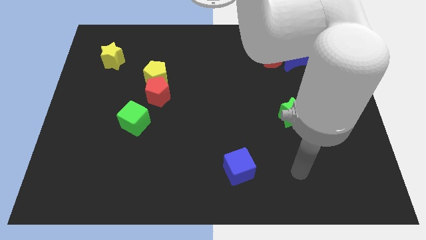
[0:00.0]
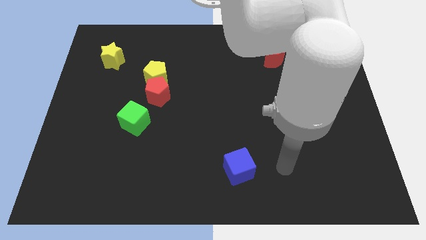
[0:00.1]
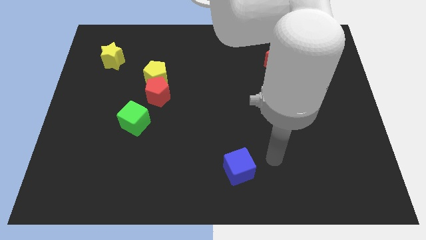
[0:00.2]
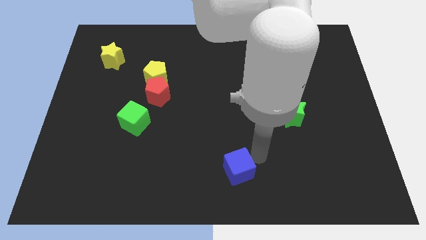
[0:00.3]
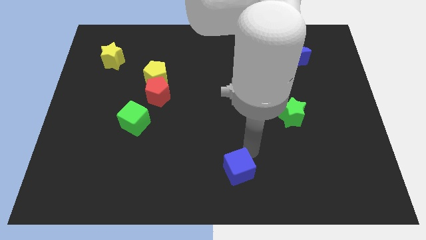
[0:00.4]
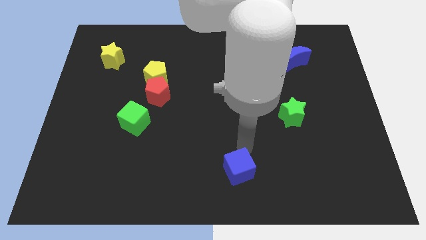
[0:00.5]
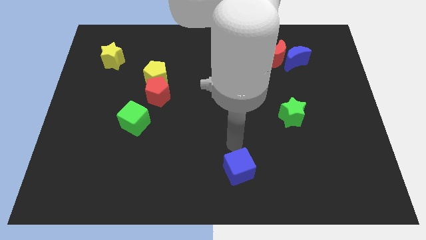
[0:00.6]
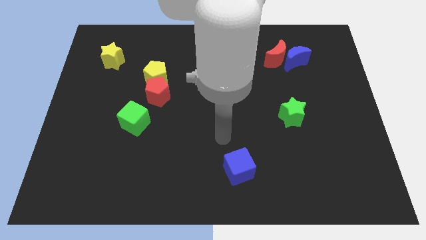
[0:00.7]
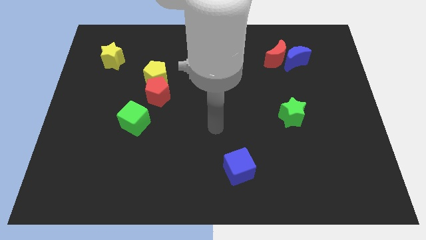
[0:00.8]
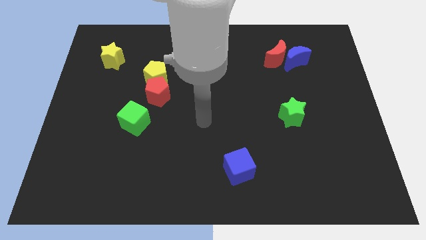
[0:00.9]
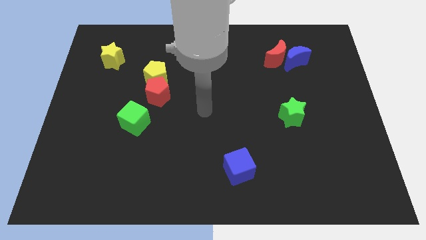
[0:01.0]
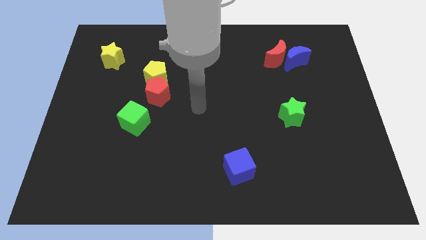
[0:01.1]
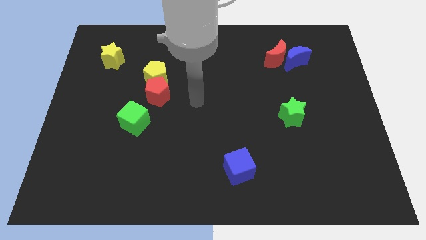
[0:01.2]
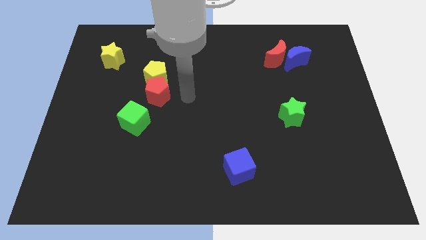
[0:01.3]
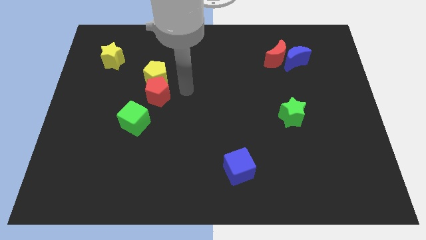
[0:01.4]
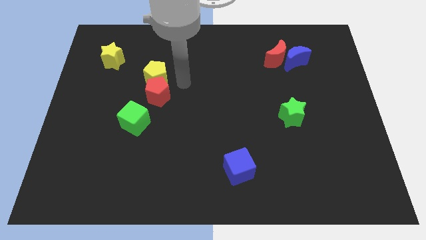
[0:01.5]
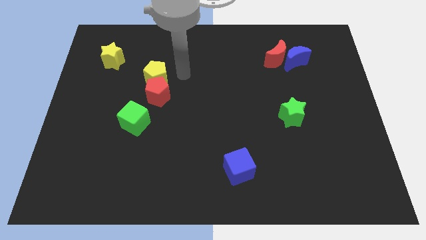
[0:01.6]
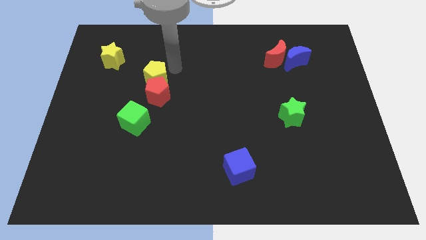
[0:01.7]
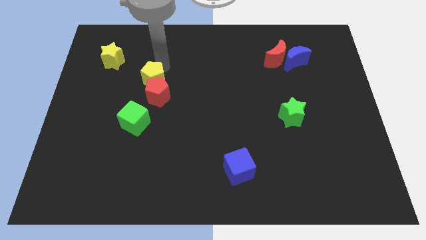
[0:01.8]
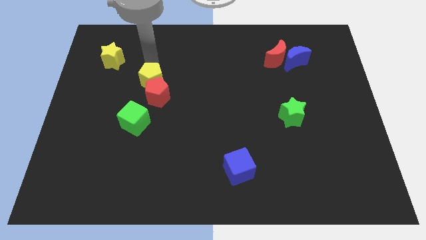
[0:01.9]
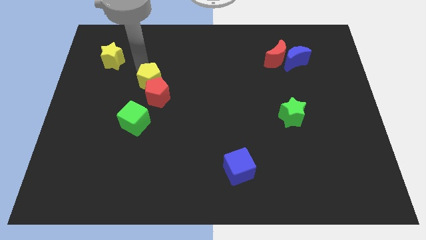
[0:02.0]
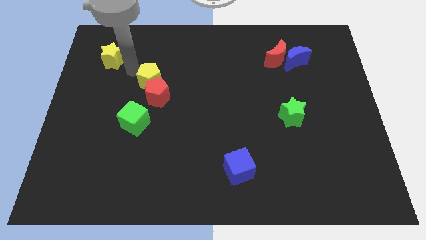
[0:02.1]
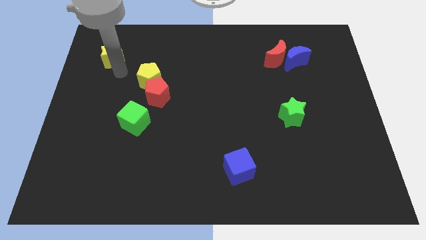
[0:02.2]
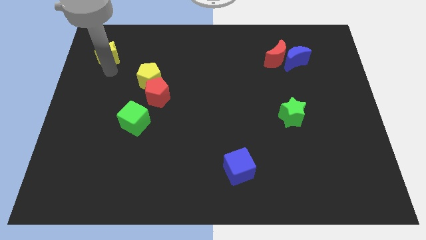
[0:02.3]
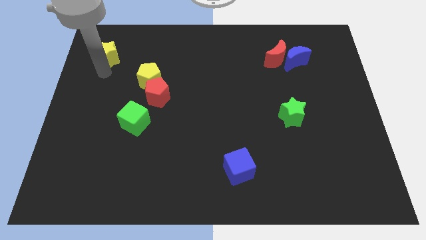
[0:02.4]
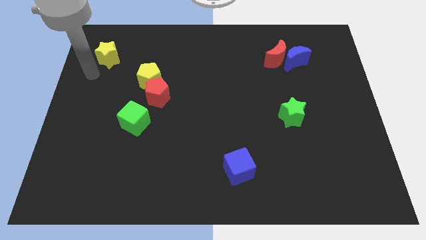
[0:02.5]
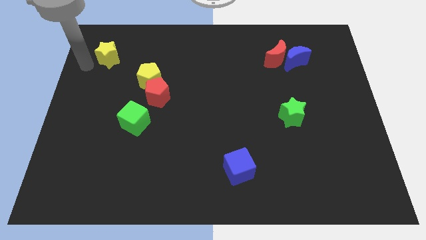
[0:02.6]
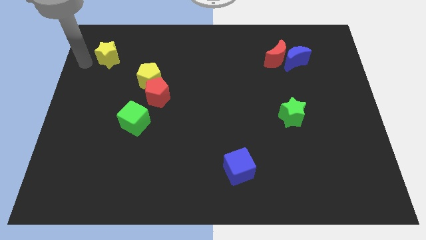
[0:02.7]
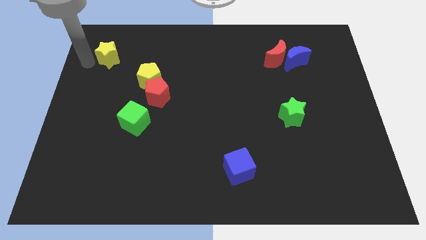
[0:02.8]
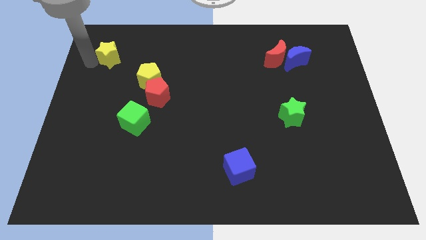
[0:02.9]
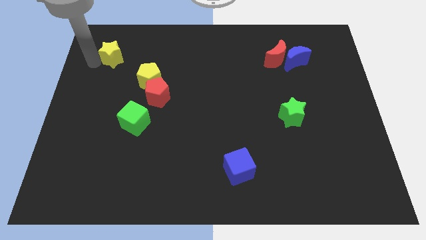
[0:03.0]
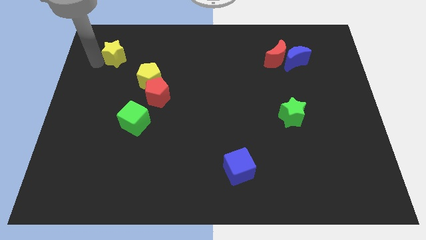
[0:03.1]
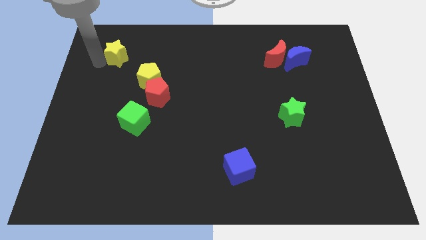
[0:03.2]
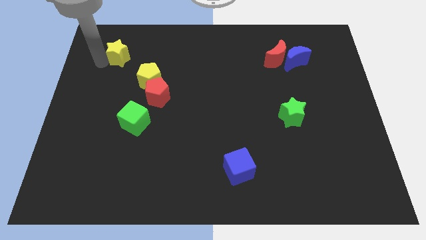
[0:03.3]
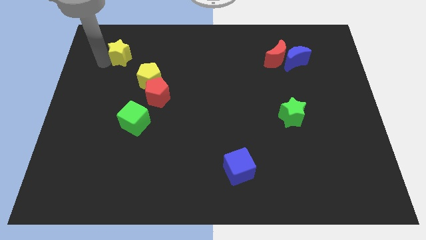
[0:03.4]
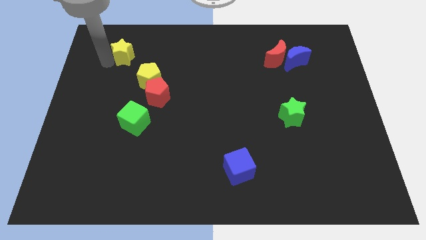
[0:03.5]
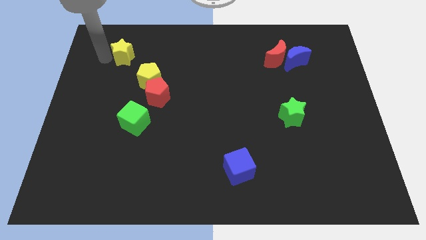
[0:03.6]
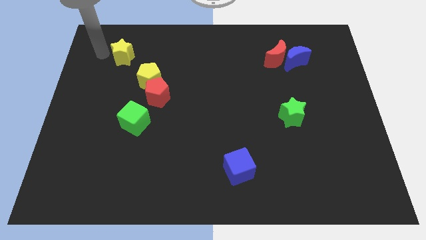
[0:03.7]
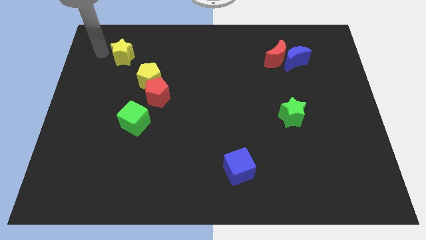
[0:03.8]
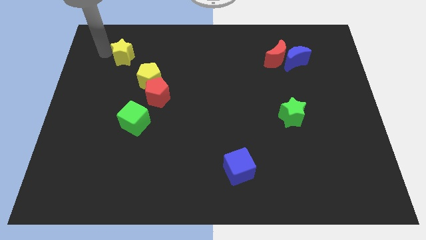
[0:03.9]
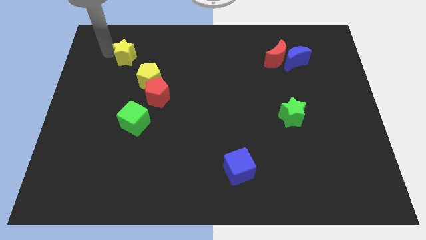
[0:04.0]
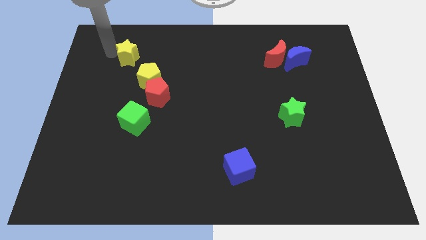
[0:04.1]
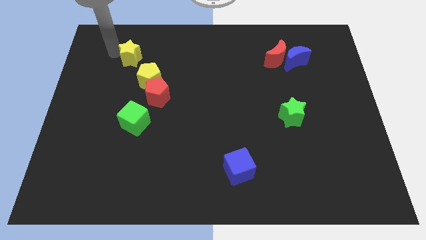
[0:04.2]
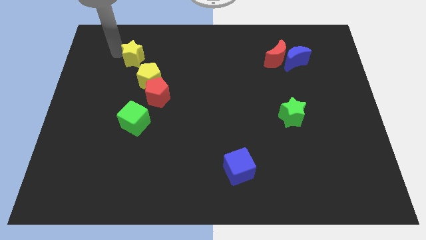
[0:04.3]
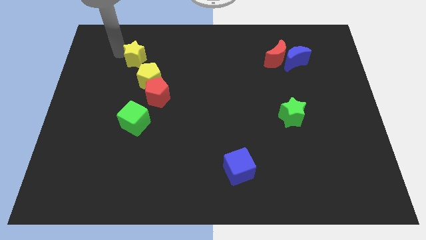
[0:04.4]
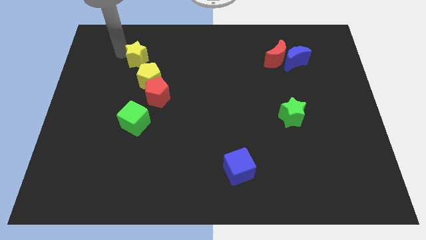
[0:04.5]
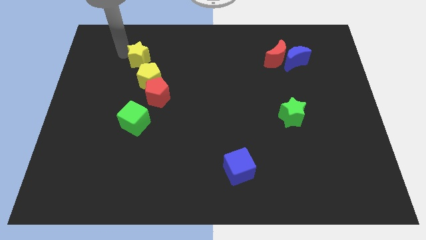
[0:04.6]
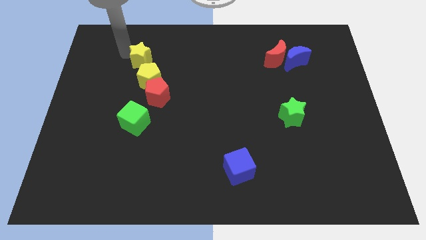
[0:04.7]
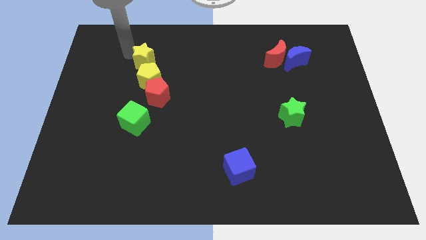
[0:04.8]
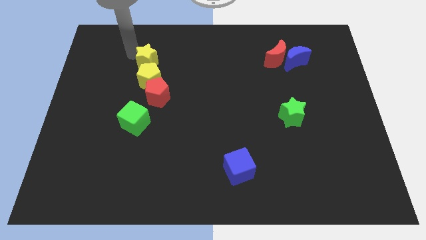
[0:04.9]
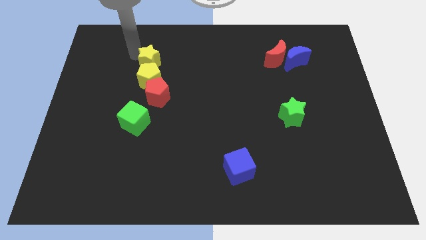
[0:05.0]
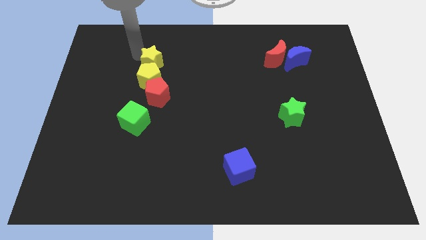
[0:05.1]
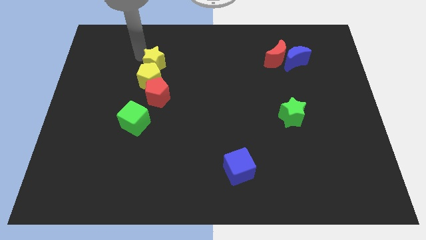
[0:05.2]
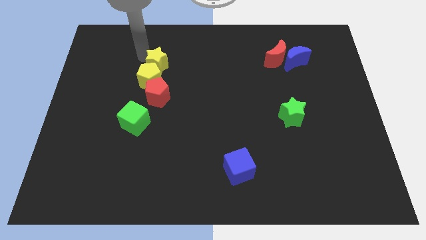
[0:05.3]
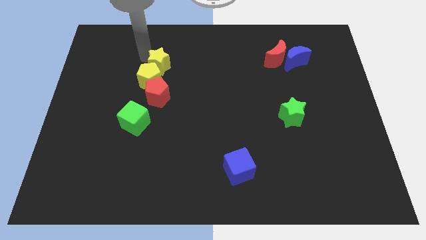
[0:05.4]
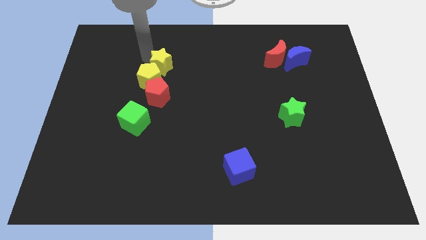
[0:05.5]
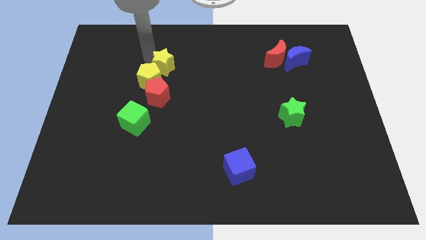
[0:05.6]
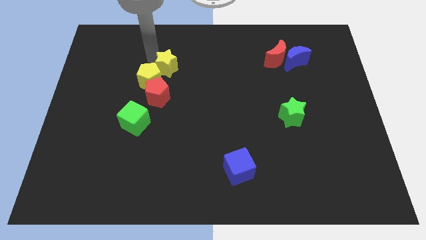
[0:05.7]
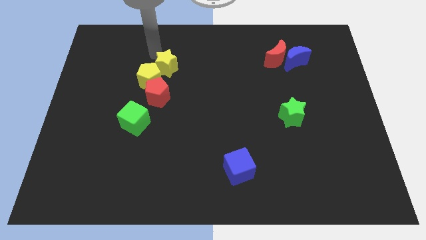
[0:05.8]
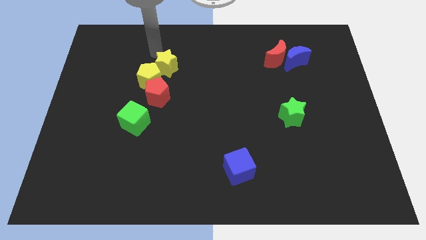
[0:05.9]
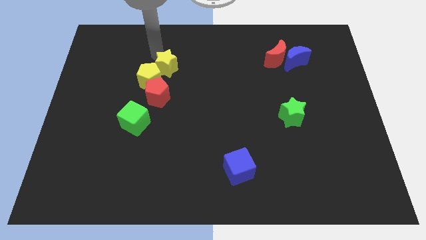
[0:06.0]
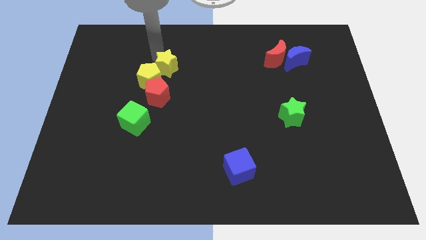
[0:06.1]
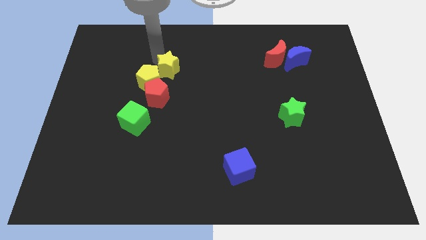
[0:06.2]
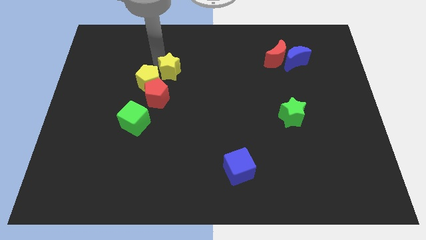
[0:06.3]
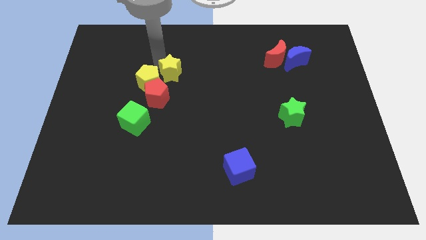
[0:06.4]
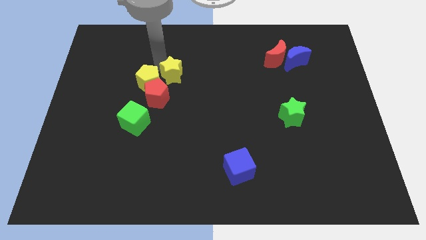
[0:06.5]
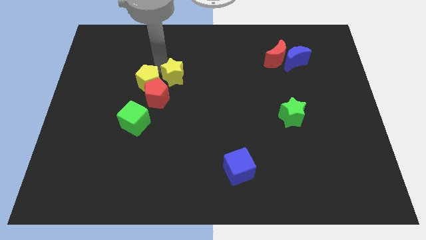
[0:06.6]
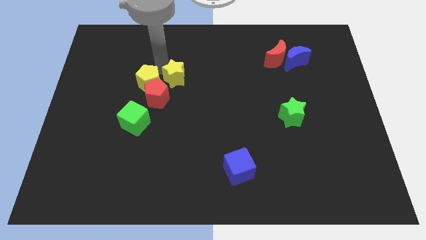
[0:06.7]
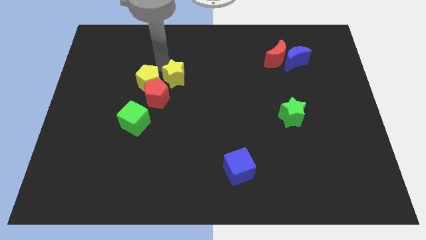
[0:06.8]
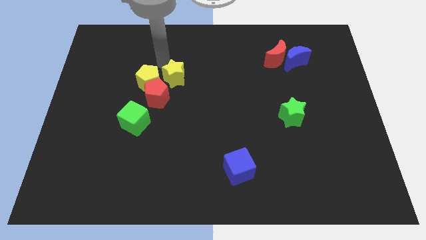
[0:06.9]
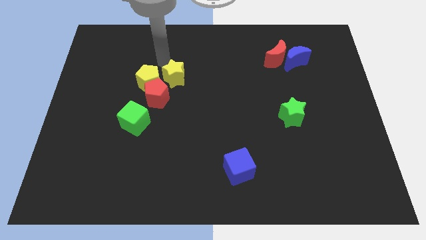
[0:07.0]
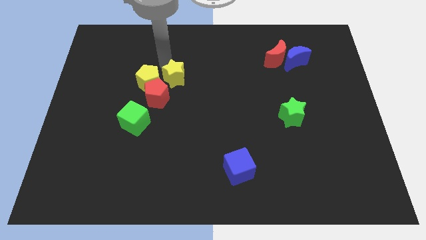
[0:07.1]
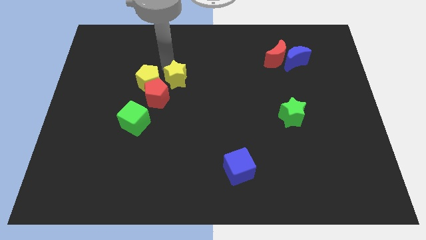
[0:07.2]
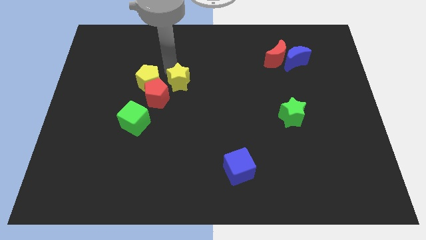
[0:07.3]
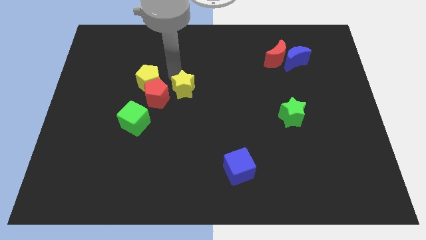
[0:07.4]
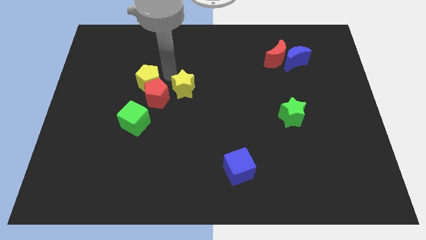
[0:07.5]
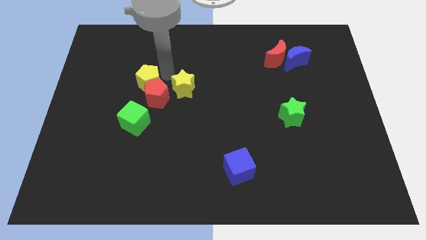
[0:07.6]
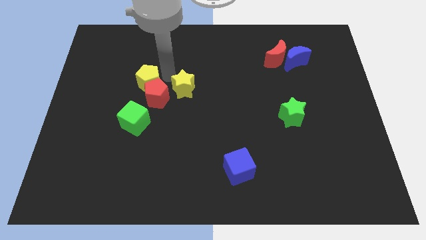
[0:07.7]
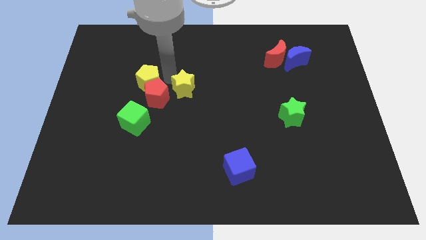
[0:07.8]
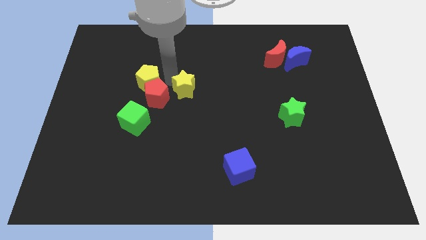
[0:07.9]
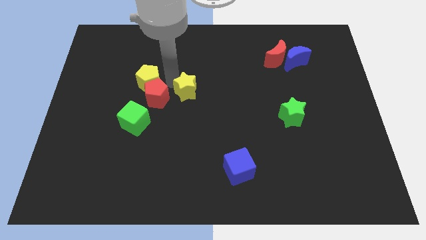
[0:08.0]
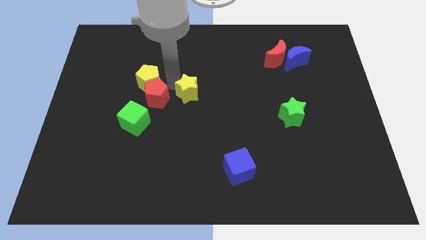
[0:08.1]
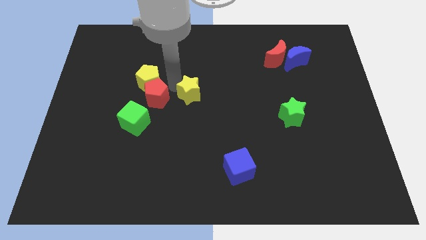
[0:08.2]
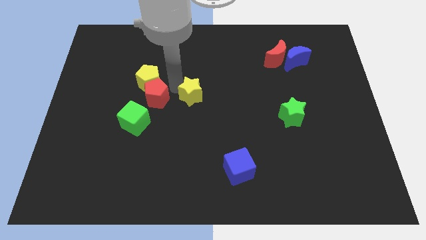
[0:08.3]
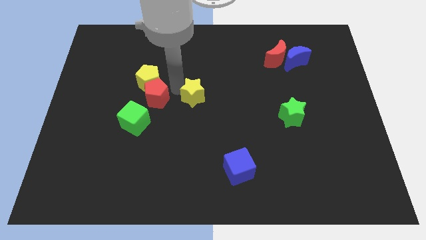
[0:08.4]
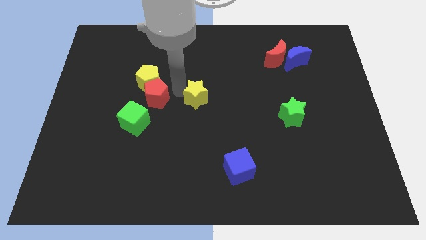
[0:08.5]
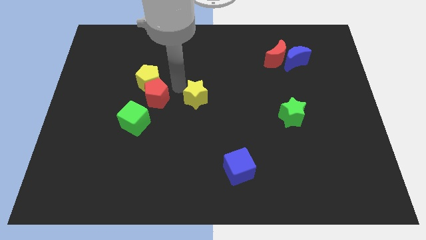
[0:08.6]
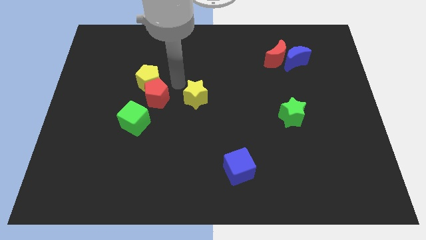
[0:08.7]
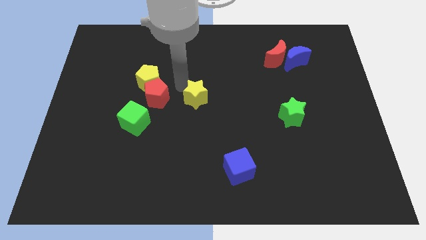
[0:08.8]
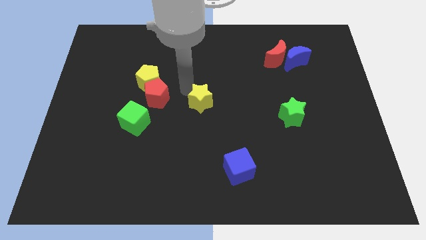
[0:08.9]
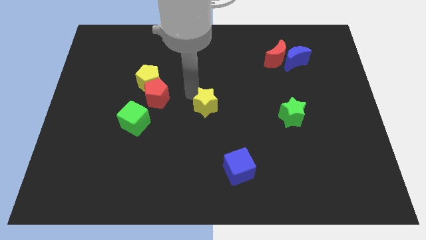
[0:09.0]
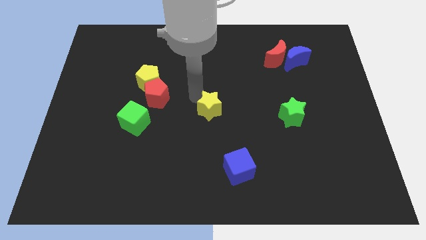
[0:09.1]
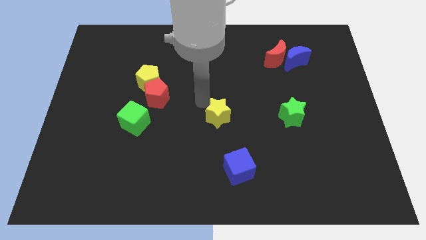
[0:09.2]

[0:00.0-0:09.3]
slide the yellow star above the blue cube
